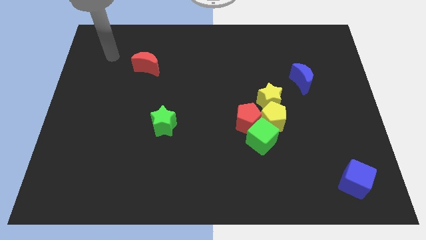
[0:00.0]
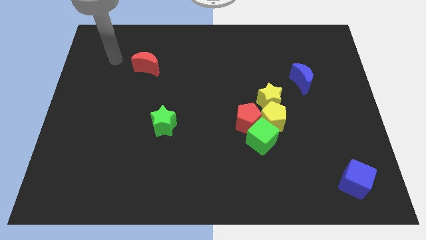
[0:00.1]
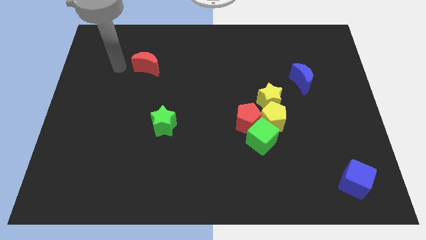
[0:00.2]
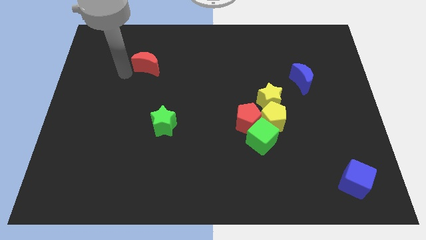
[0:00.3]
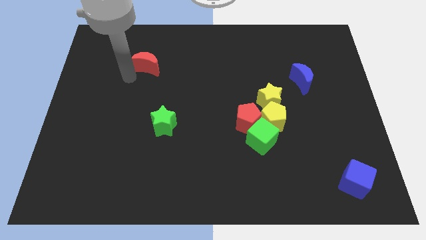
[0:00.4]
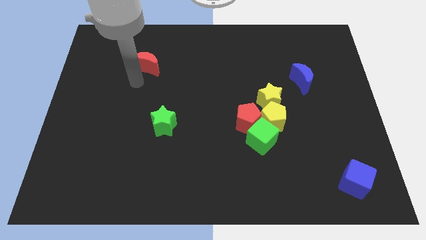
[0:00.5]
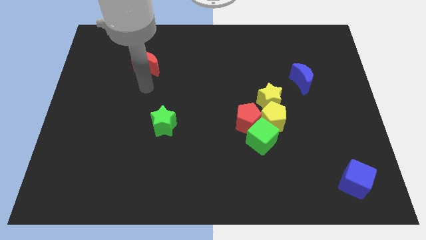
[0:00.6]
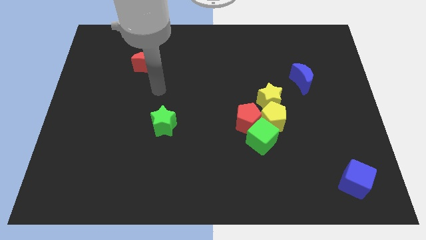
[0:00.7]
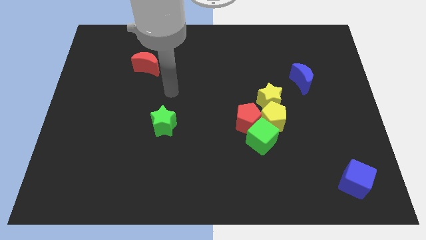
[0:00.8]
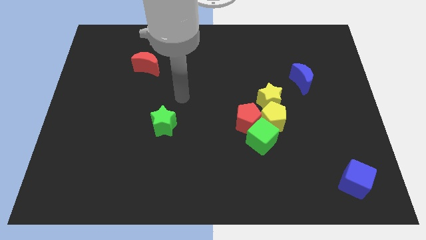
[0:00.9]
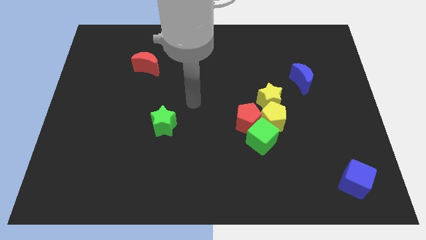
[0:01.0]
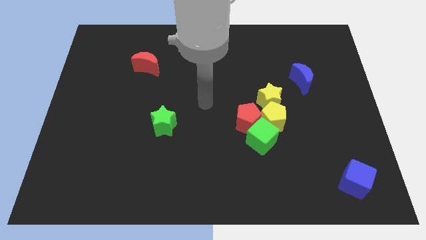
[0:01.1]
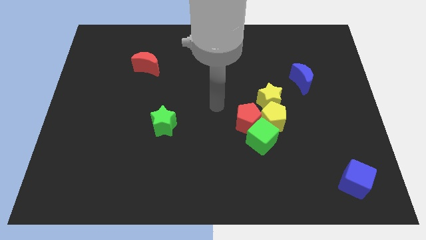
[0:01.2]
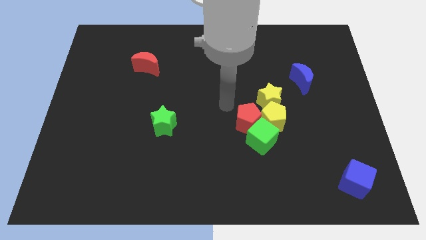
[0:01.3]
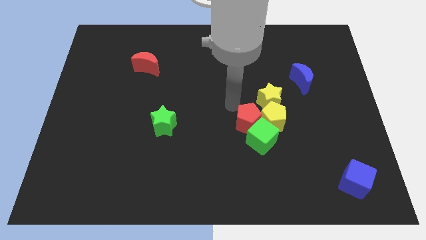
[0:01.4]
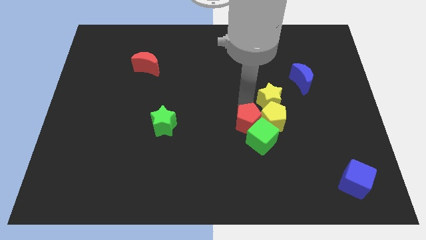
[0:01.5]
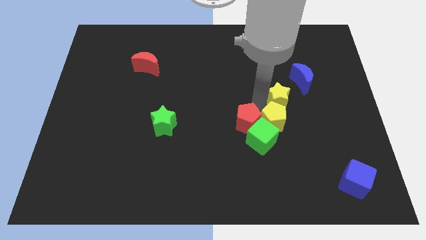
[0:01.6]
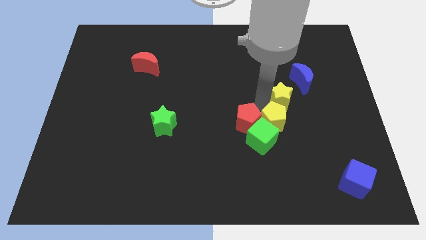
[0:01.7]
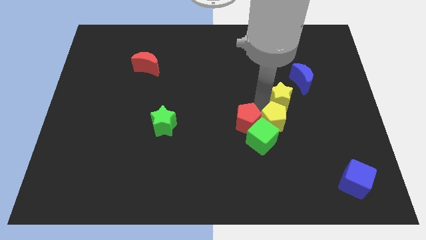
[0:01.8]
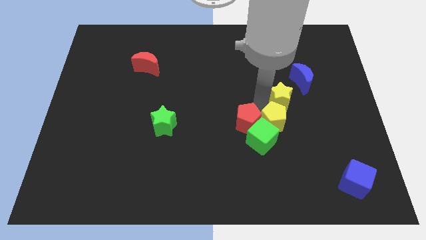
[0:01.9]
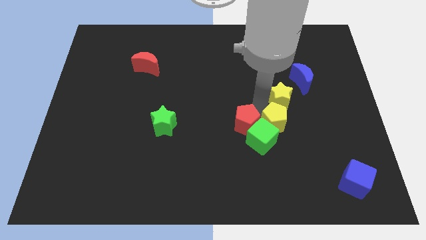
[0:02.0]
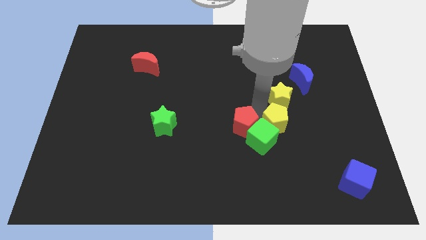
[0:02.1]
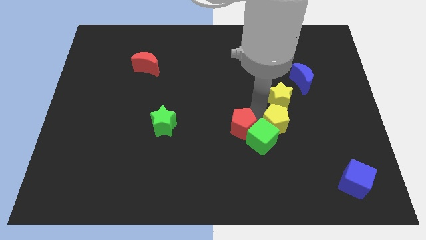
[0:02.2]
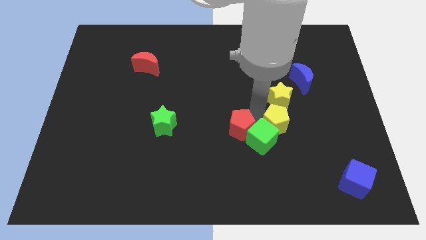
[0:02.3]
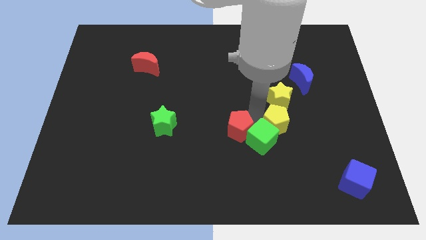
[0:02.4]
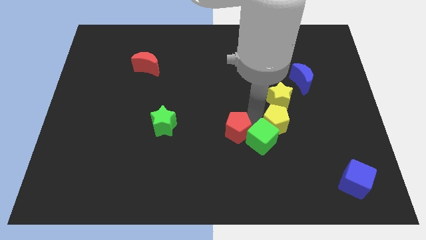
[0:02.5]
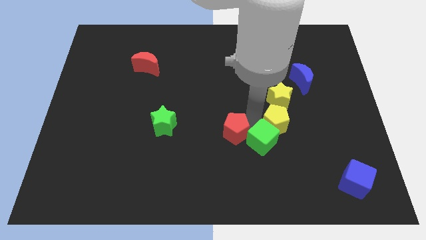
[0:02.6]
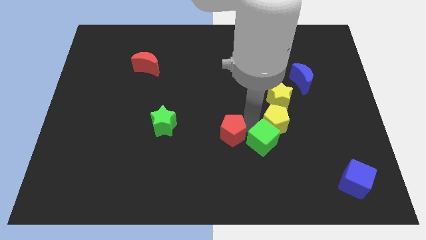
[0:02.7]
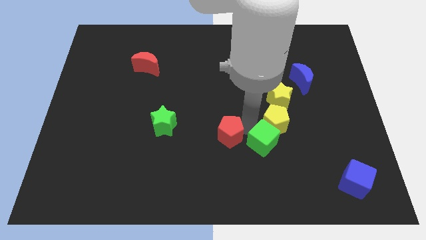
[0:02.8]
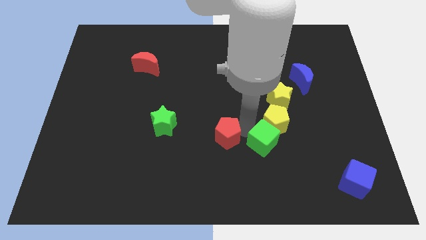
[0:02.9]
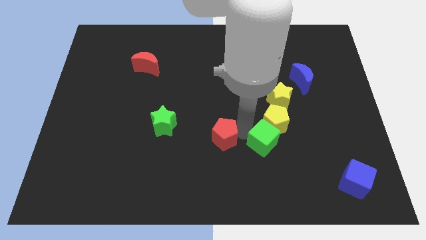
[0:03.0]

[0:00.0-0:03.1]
slide the red pentagon downwards and then left a little bit

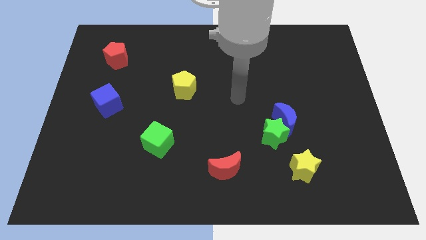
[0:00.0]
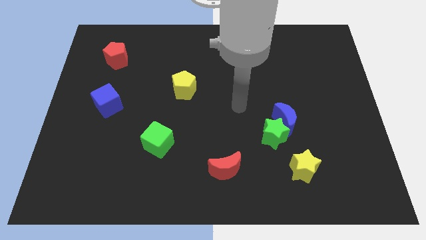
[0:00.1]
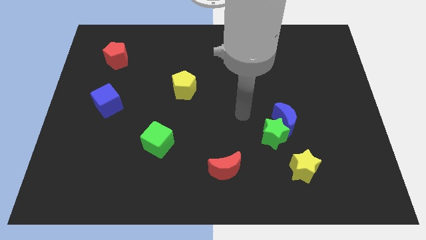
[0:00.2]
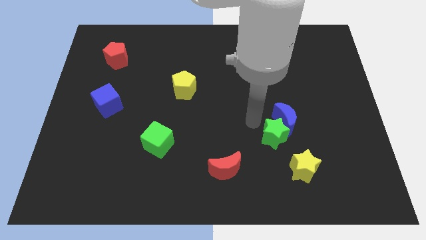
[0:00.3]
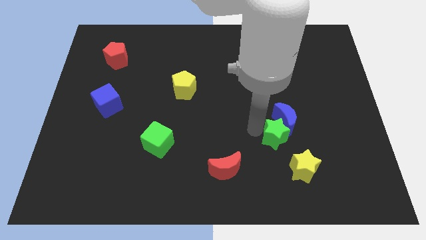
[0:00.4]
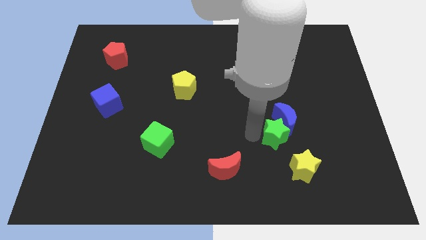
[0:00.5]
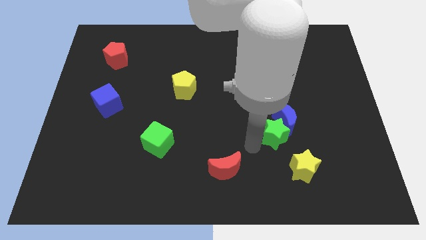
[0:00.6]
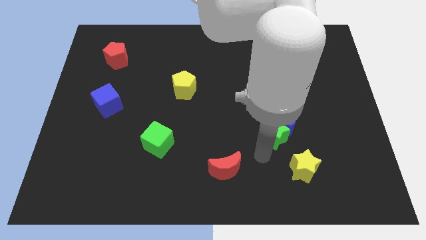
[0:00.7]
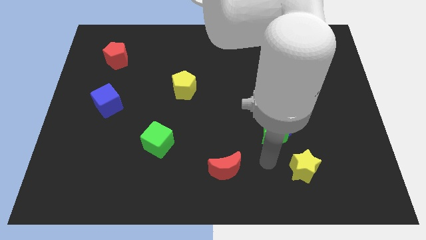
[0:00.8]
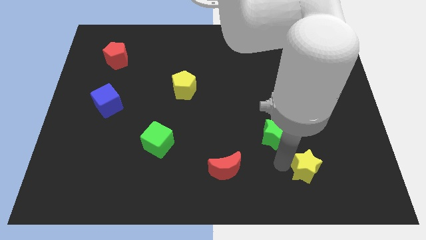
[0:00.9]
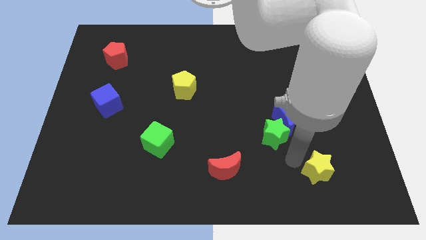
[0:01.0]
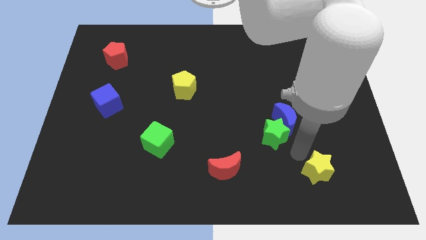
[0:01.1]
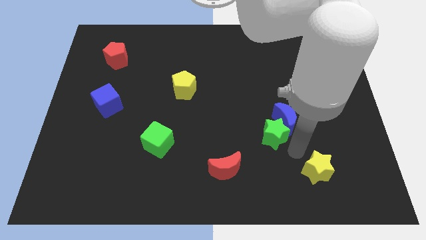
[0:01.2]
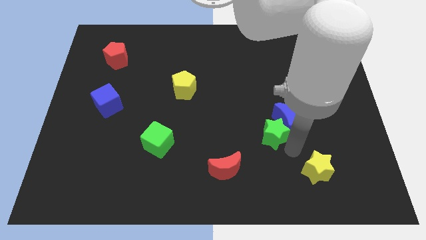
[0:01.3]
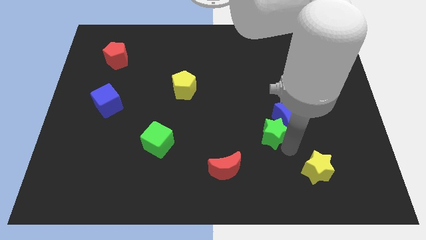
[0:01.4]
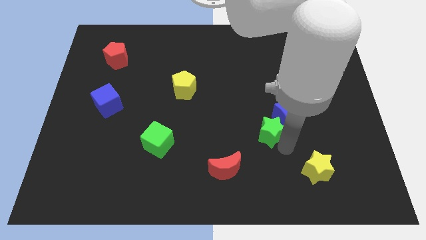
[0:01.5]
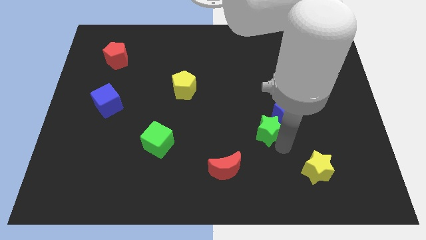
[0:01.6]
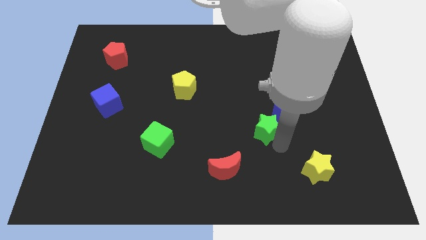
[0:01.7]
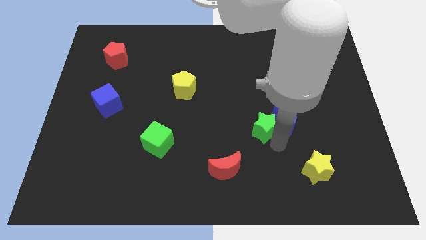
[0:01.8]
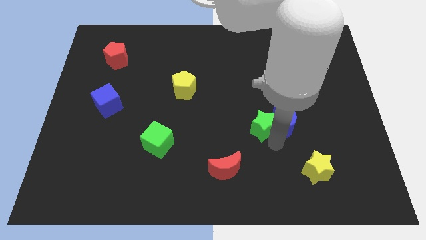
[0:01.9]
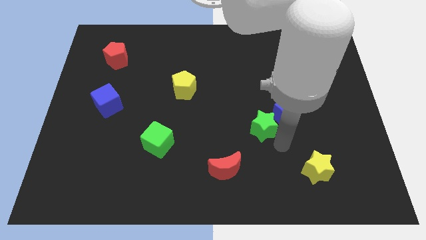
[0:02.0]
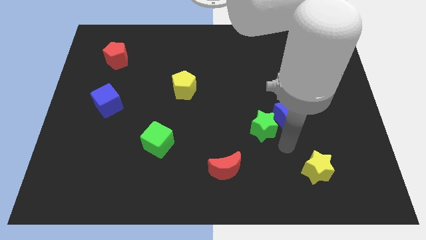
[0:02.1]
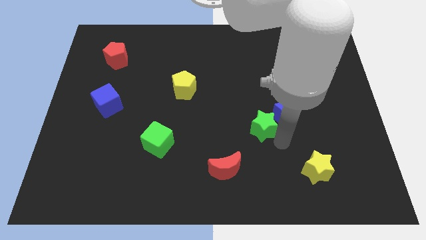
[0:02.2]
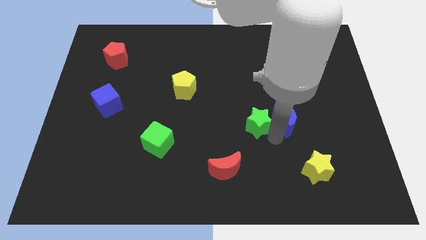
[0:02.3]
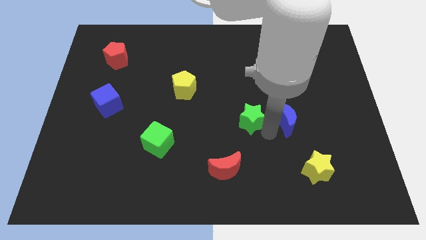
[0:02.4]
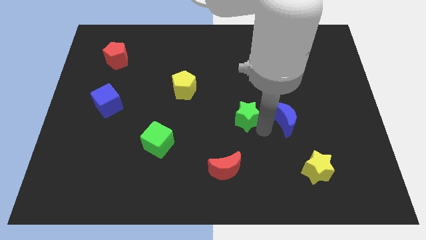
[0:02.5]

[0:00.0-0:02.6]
slightly move the green star up and to the left

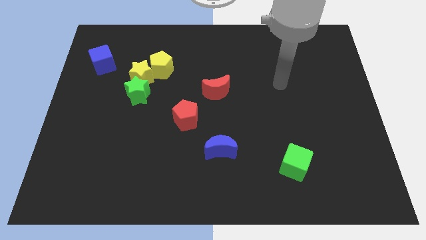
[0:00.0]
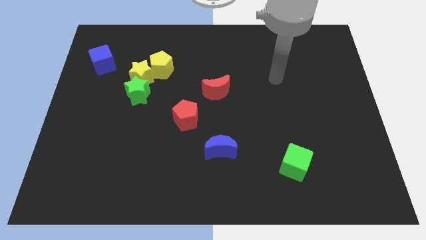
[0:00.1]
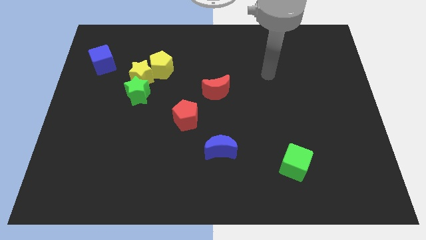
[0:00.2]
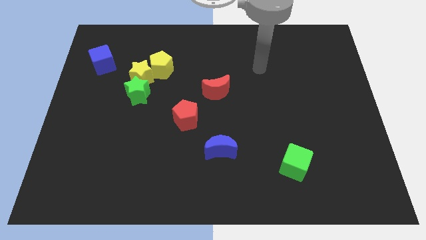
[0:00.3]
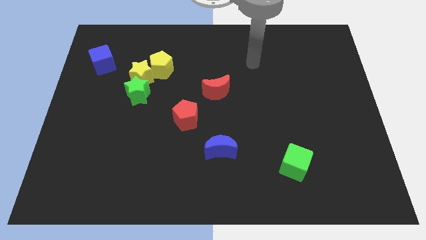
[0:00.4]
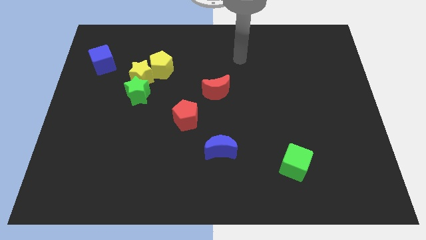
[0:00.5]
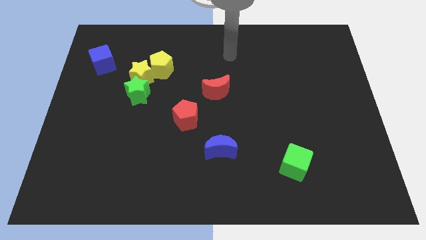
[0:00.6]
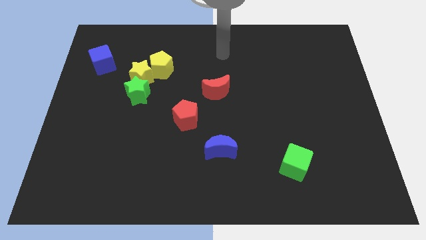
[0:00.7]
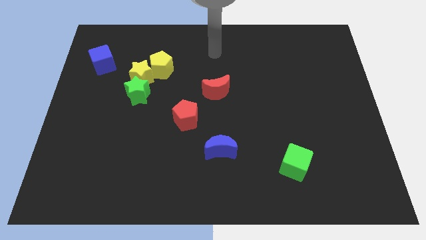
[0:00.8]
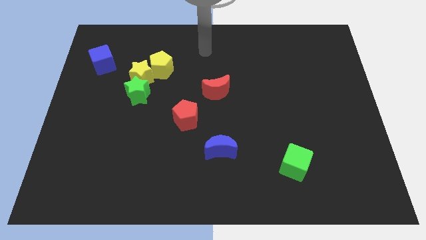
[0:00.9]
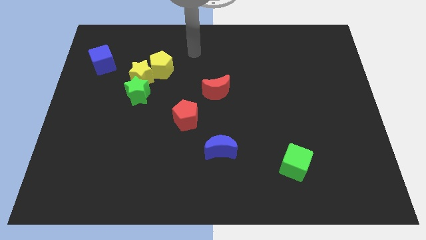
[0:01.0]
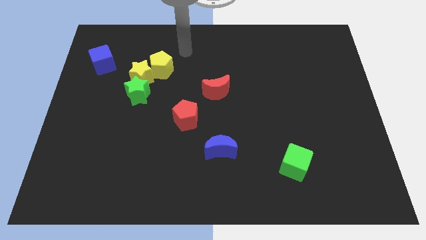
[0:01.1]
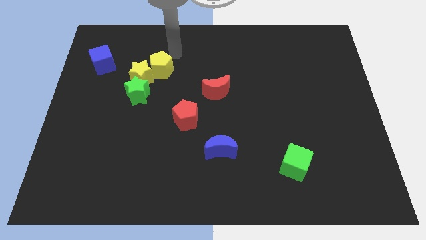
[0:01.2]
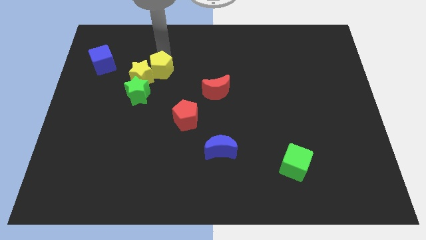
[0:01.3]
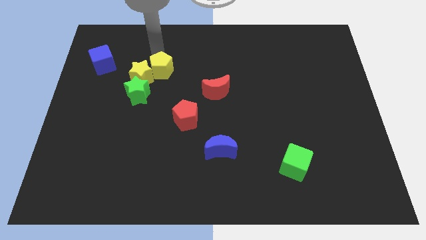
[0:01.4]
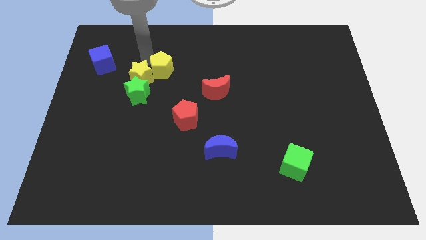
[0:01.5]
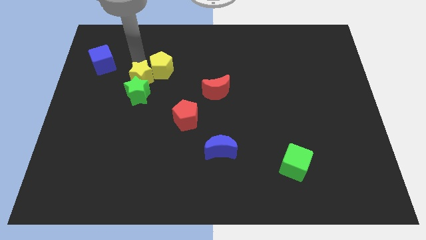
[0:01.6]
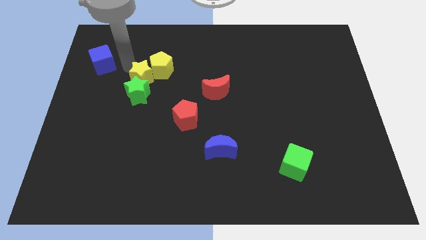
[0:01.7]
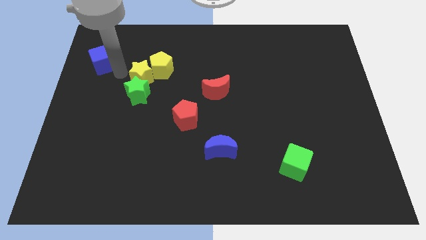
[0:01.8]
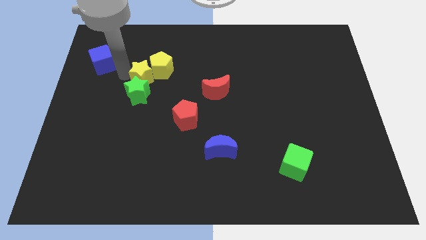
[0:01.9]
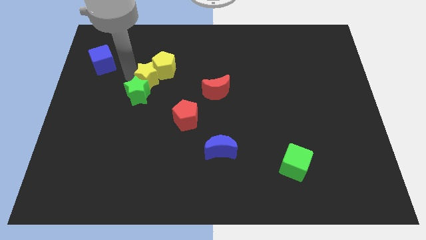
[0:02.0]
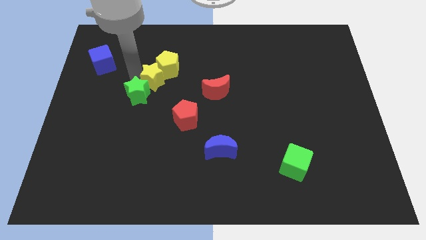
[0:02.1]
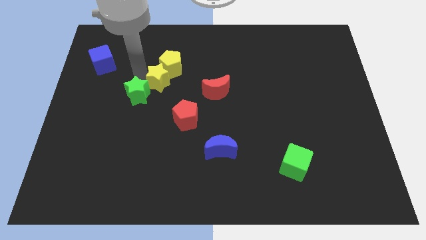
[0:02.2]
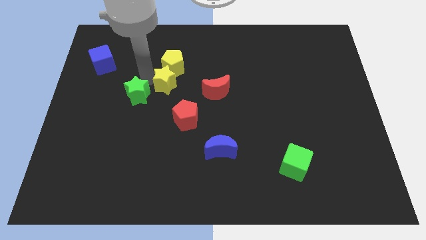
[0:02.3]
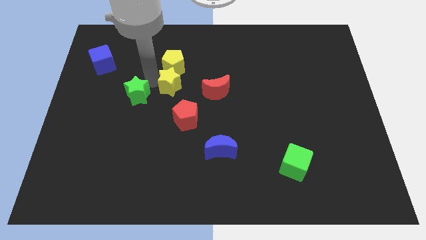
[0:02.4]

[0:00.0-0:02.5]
slightly push the yellow star to the right
